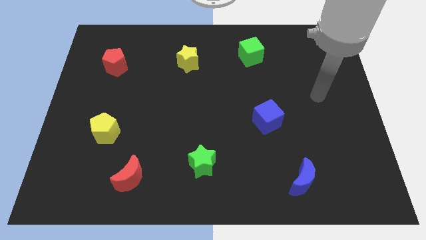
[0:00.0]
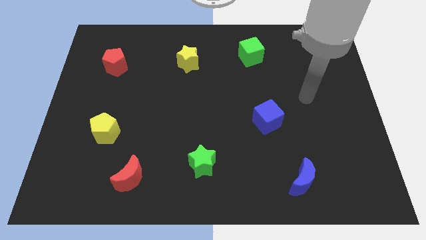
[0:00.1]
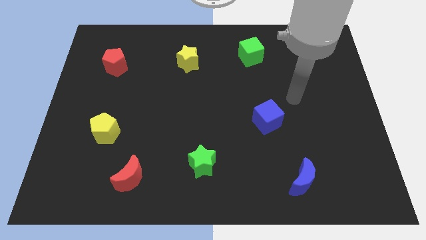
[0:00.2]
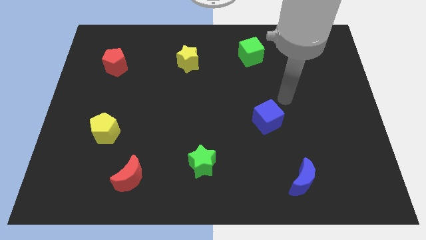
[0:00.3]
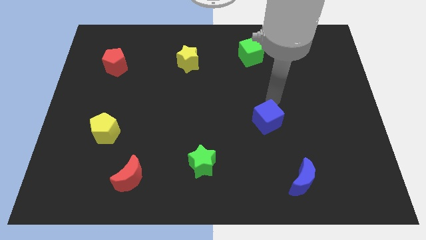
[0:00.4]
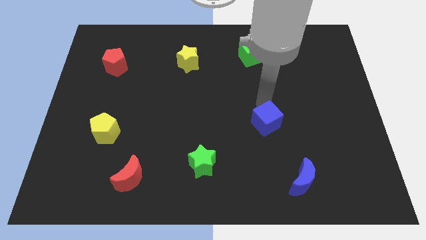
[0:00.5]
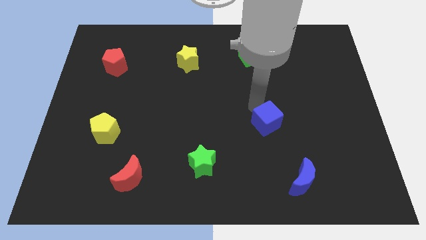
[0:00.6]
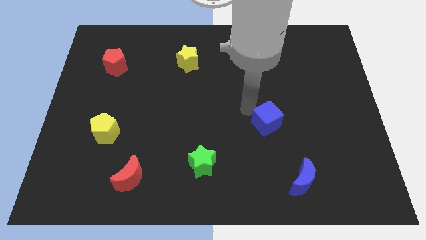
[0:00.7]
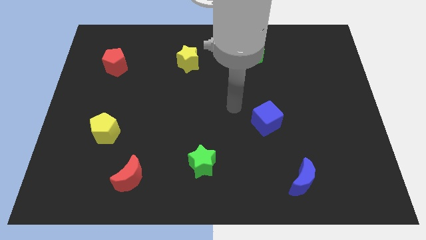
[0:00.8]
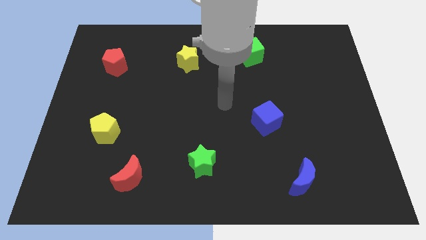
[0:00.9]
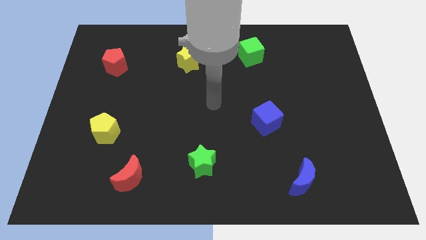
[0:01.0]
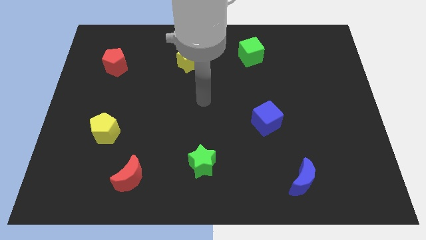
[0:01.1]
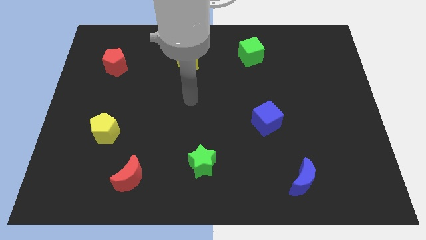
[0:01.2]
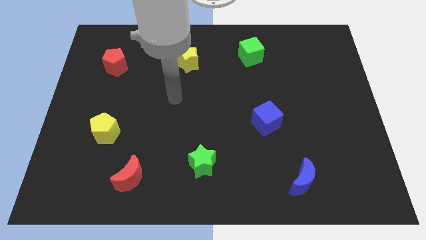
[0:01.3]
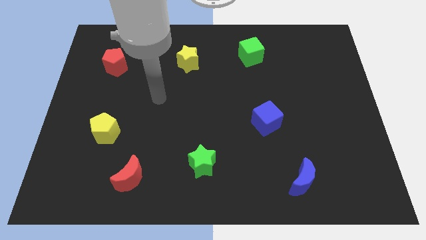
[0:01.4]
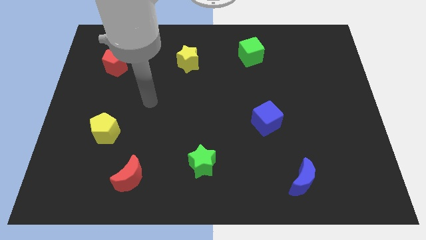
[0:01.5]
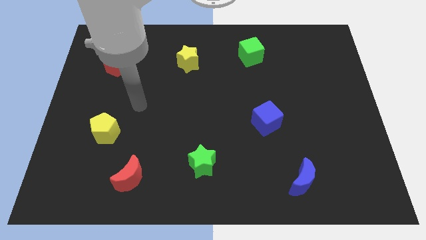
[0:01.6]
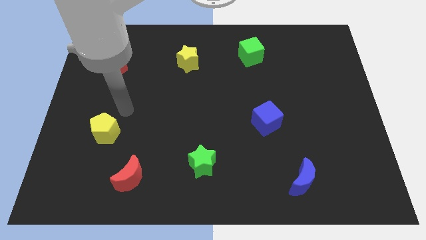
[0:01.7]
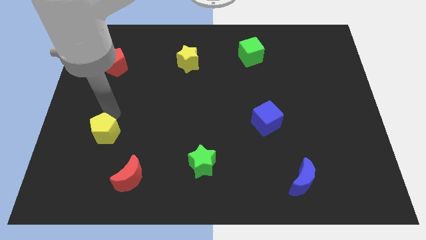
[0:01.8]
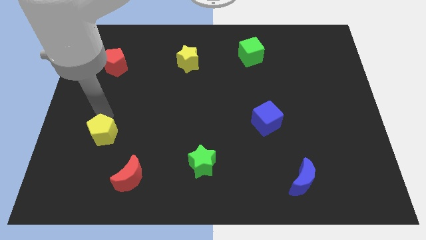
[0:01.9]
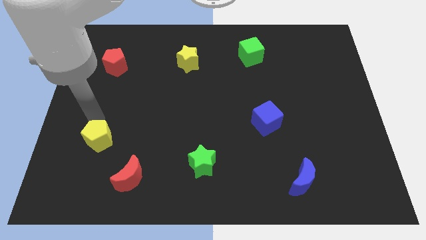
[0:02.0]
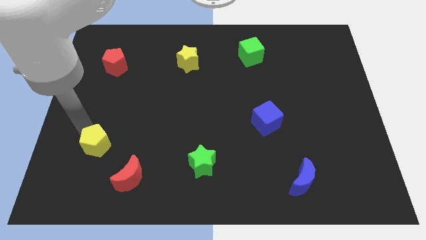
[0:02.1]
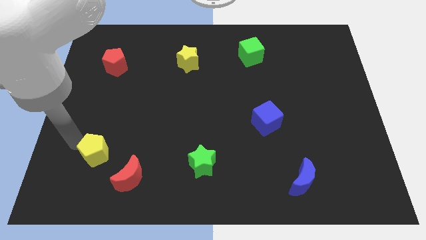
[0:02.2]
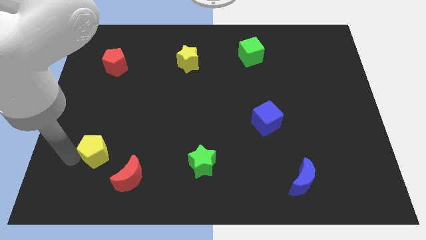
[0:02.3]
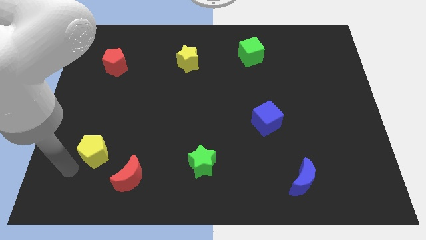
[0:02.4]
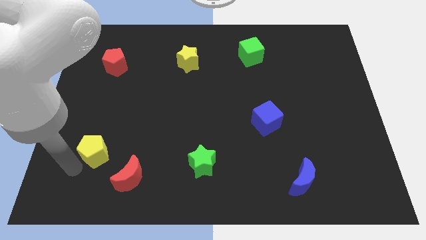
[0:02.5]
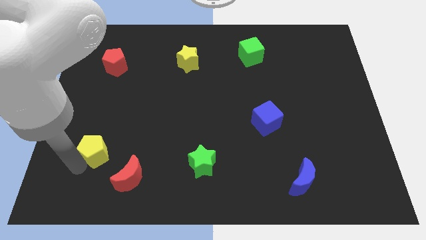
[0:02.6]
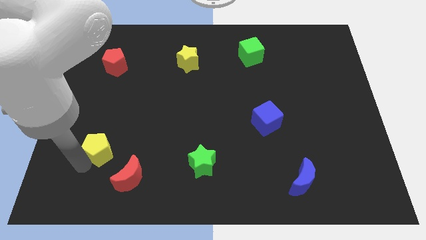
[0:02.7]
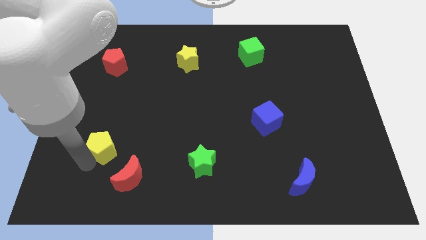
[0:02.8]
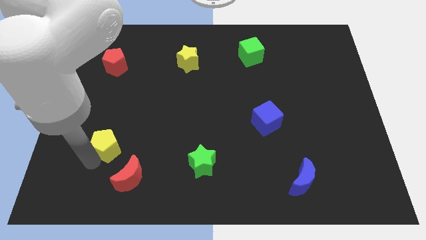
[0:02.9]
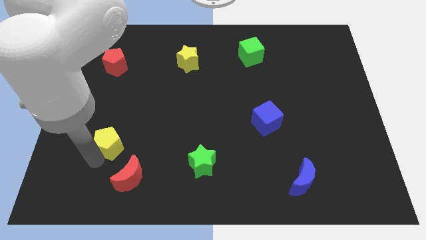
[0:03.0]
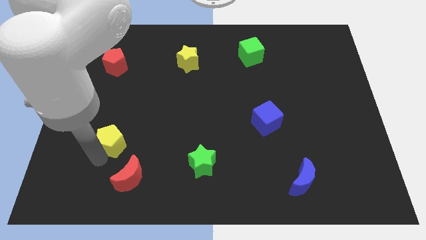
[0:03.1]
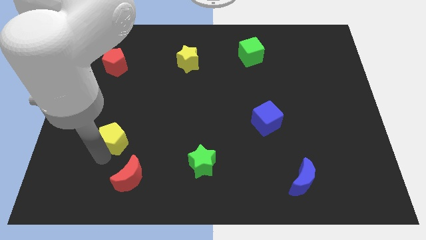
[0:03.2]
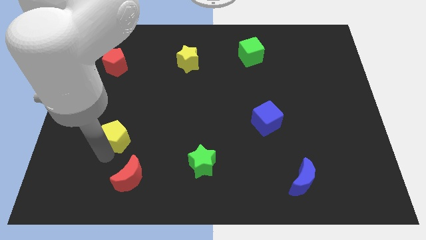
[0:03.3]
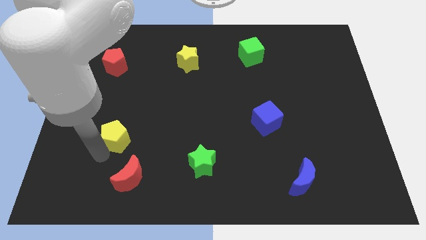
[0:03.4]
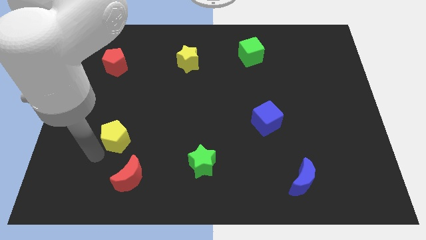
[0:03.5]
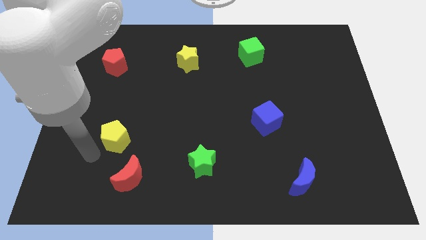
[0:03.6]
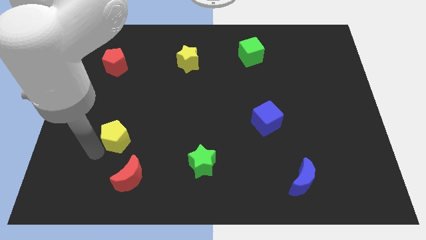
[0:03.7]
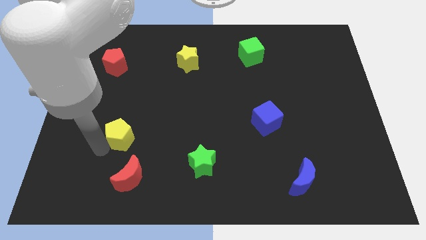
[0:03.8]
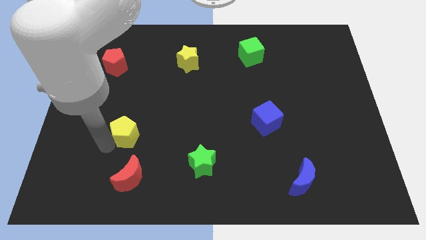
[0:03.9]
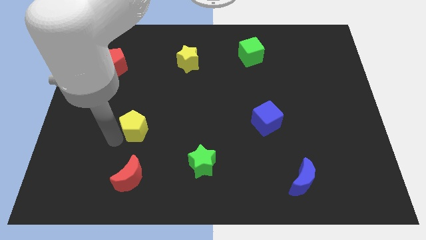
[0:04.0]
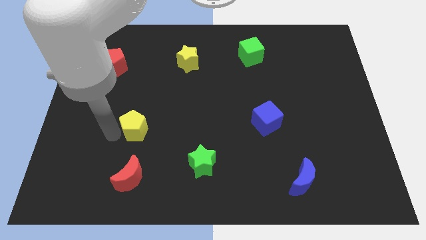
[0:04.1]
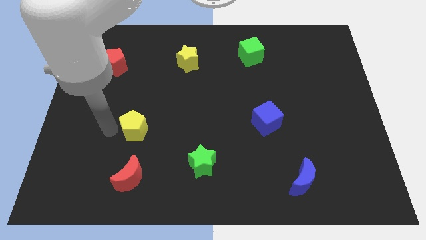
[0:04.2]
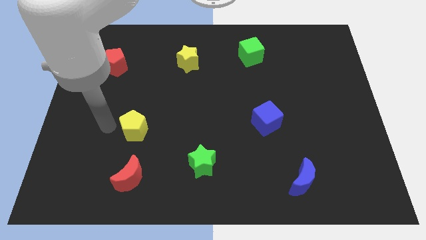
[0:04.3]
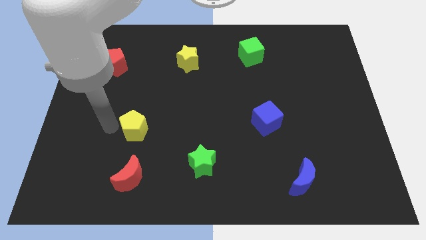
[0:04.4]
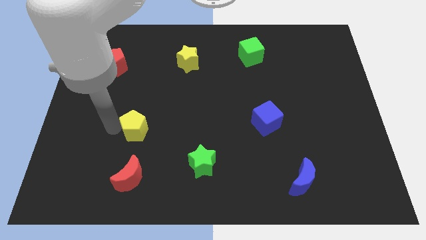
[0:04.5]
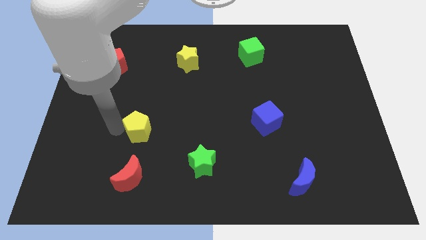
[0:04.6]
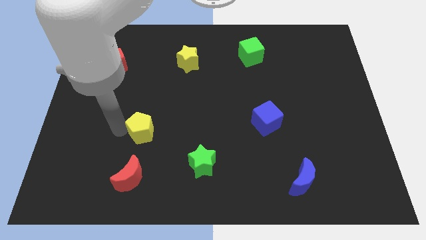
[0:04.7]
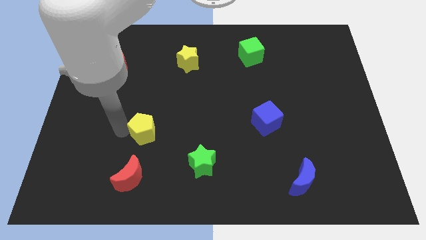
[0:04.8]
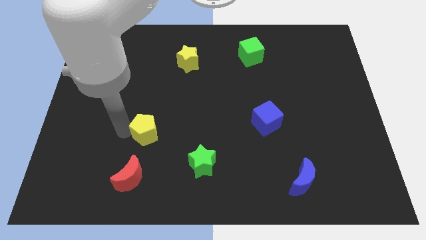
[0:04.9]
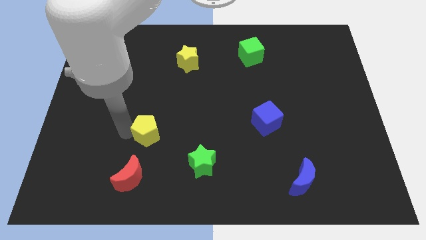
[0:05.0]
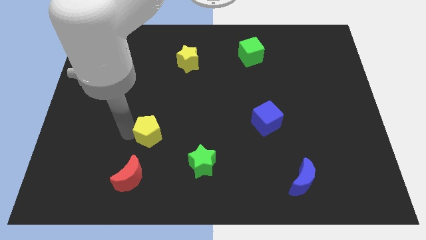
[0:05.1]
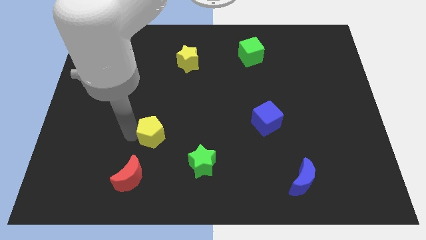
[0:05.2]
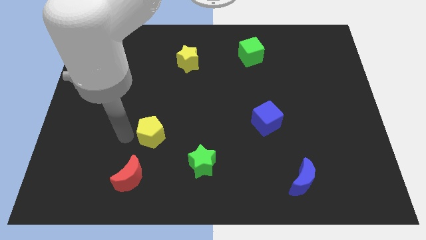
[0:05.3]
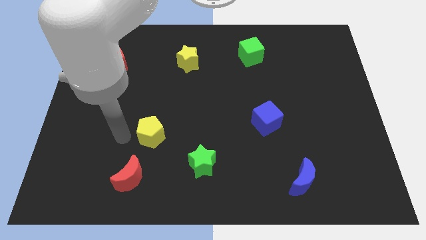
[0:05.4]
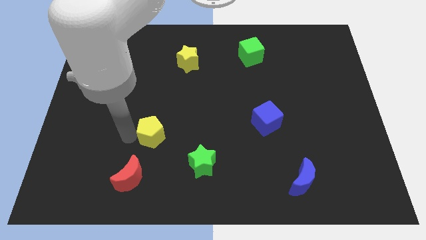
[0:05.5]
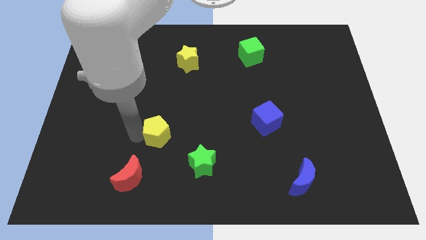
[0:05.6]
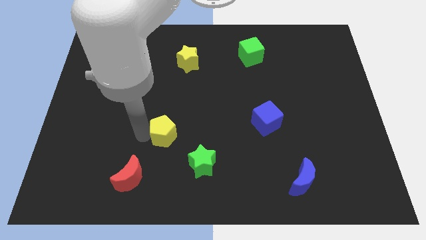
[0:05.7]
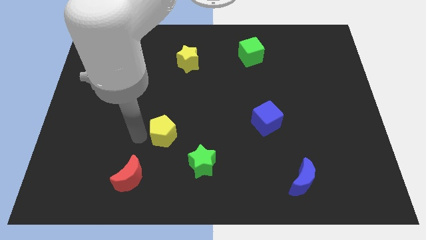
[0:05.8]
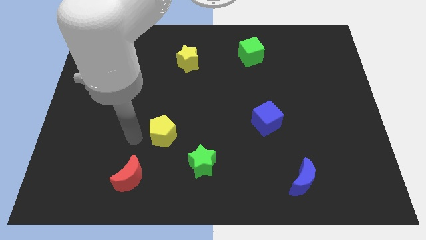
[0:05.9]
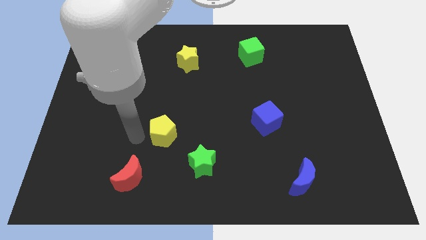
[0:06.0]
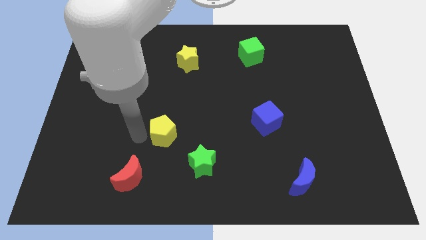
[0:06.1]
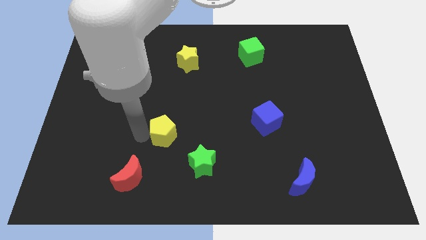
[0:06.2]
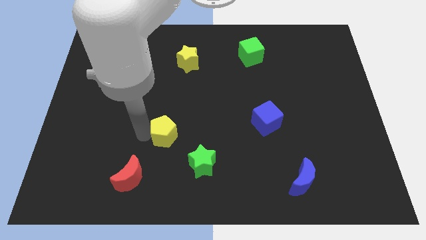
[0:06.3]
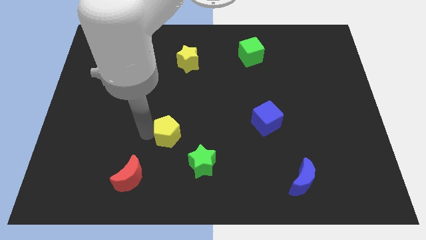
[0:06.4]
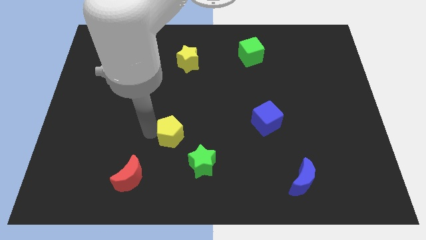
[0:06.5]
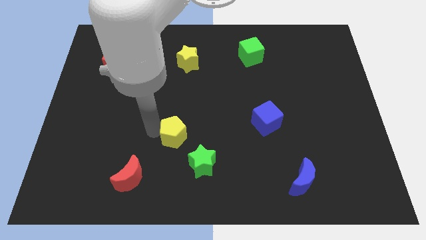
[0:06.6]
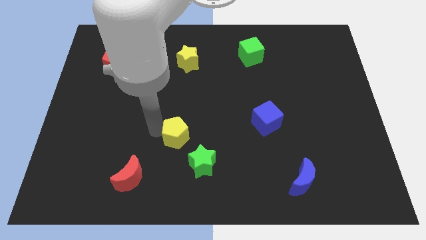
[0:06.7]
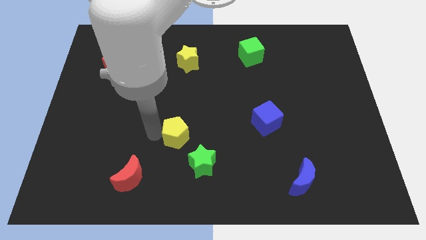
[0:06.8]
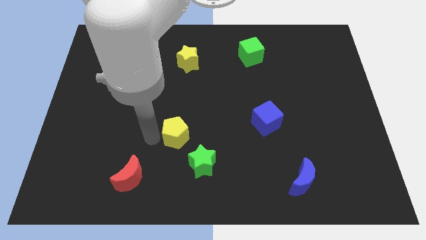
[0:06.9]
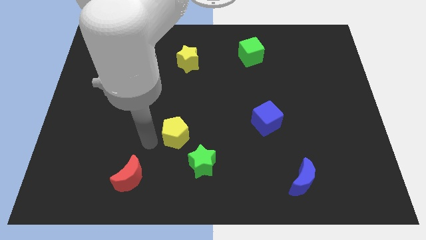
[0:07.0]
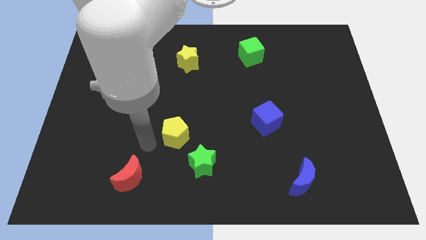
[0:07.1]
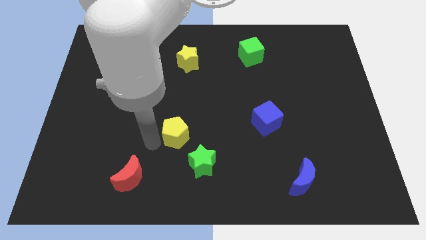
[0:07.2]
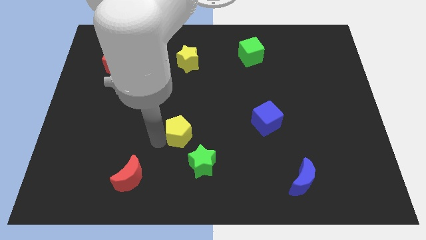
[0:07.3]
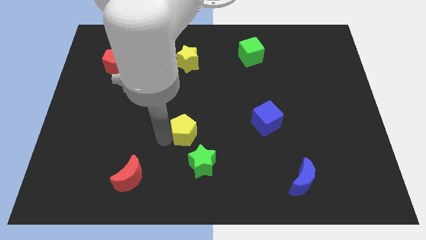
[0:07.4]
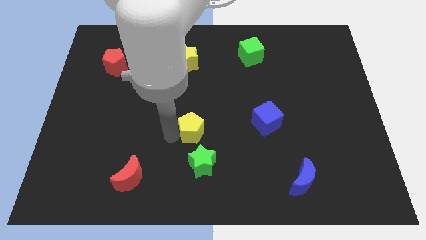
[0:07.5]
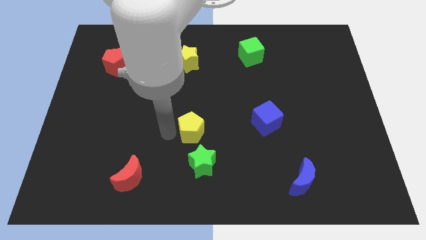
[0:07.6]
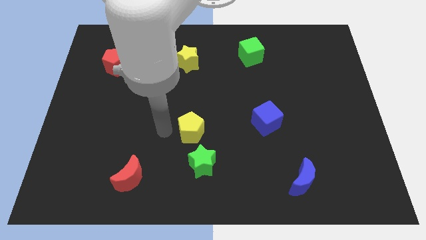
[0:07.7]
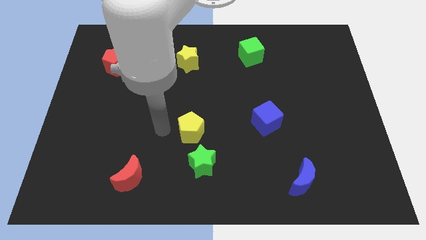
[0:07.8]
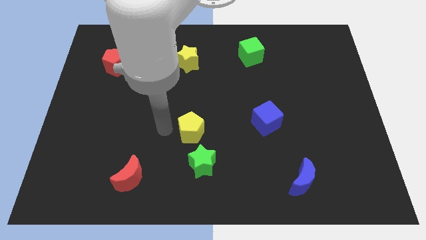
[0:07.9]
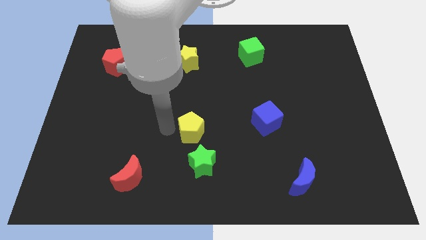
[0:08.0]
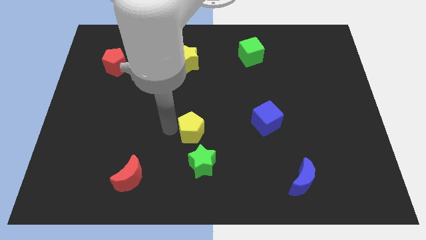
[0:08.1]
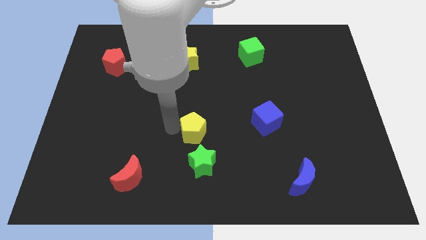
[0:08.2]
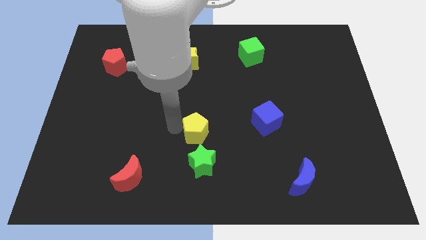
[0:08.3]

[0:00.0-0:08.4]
move the yellow pentagon to the right
